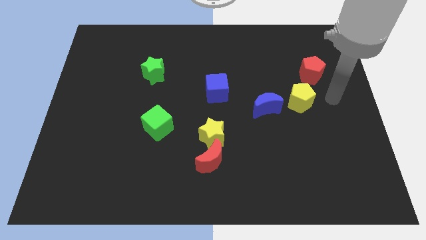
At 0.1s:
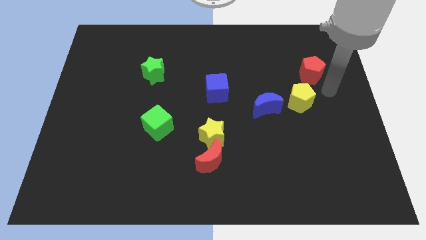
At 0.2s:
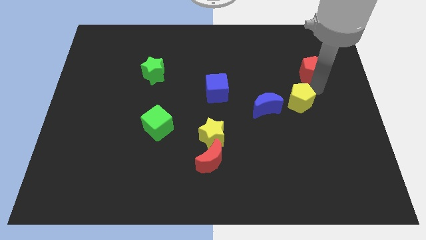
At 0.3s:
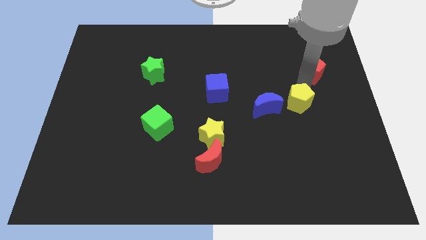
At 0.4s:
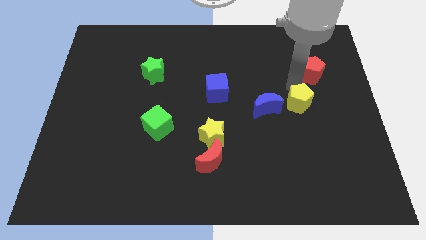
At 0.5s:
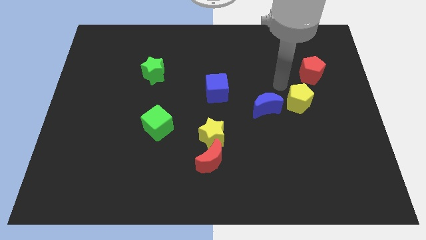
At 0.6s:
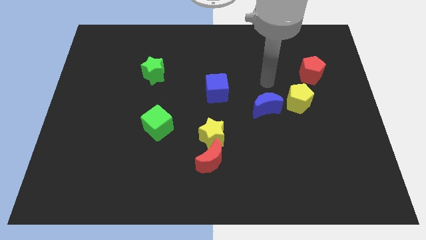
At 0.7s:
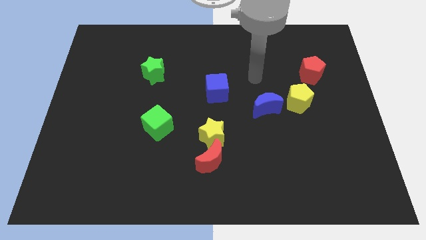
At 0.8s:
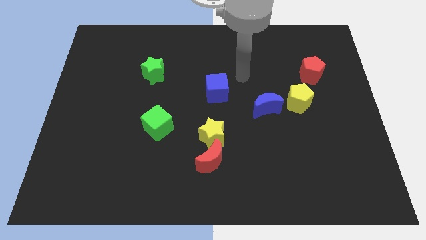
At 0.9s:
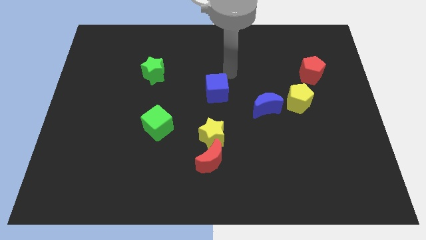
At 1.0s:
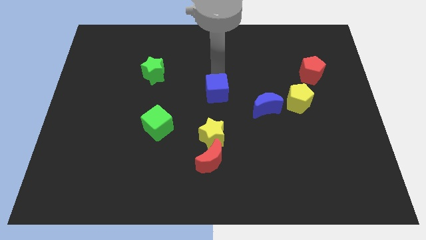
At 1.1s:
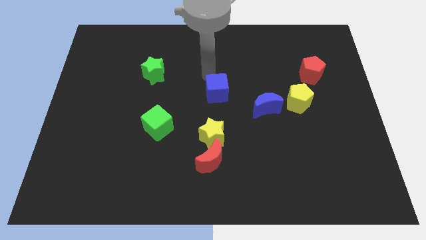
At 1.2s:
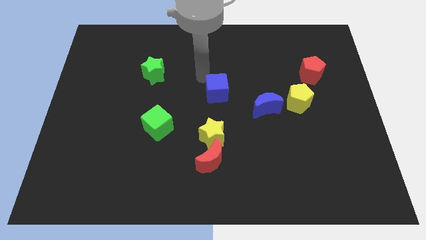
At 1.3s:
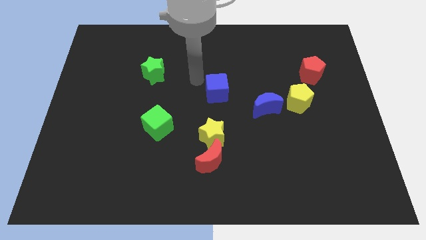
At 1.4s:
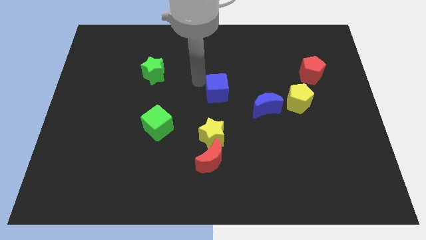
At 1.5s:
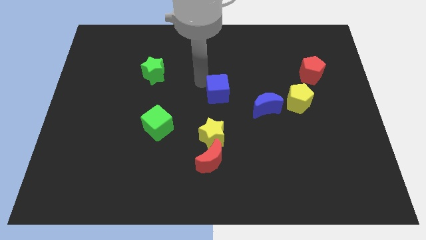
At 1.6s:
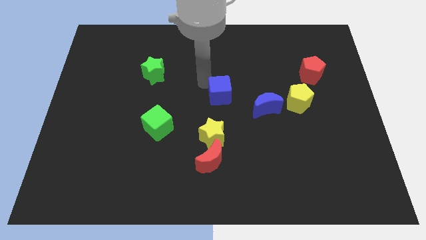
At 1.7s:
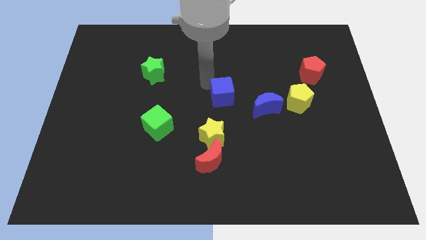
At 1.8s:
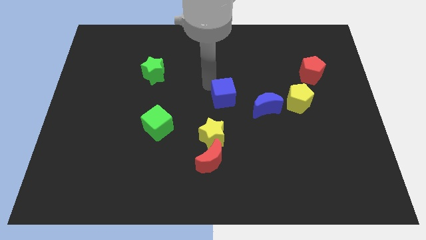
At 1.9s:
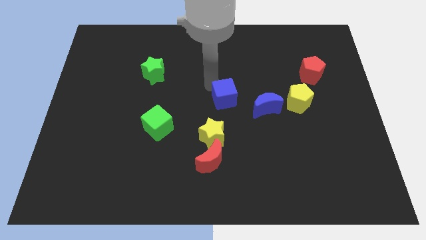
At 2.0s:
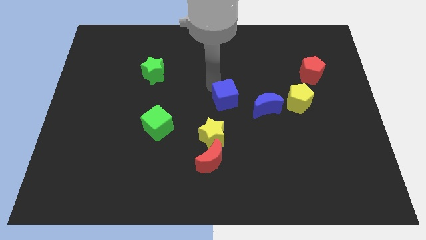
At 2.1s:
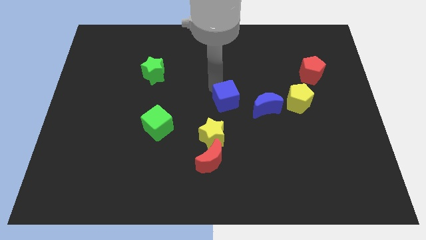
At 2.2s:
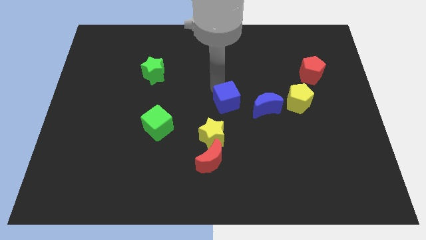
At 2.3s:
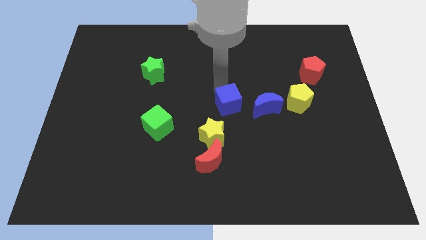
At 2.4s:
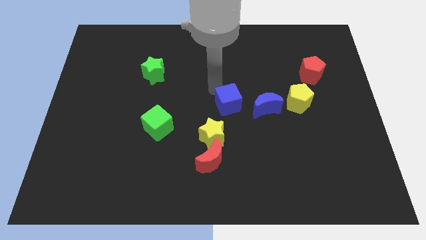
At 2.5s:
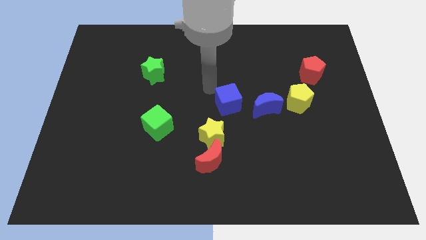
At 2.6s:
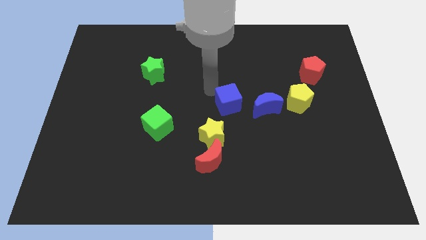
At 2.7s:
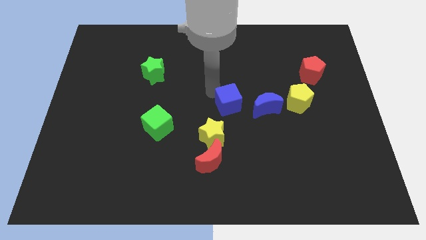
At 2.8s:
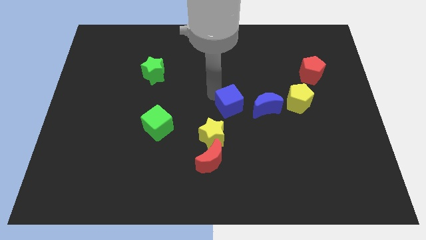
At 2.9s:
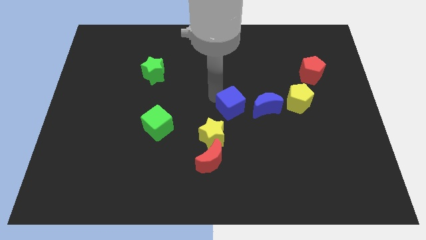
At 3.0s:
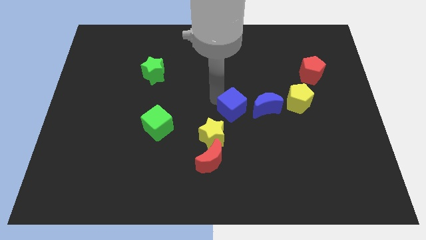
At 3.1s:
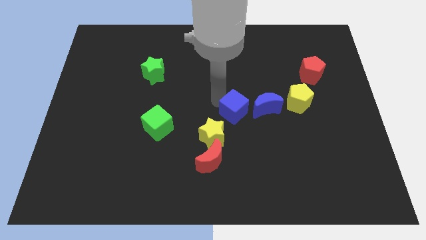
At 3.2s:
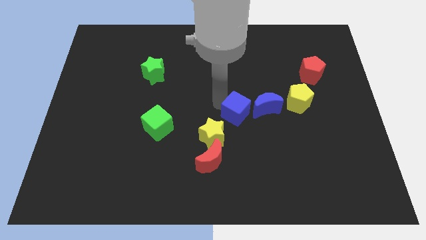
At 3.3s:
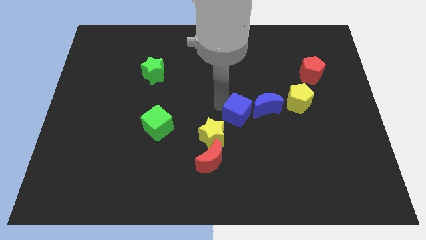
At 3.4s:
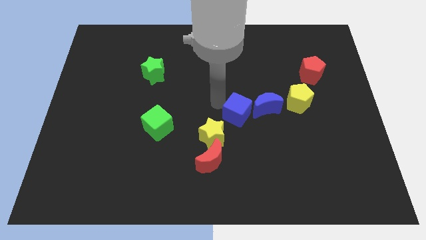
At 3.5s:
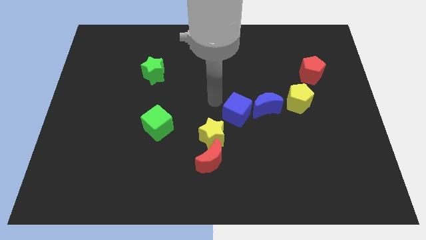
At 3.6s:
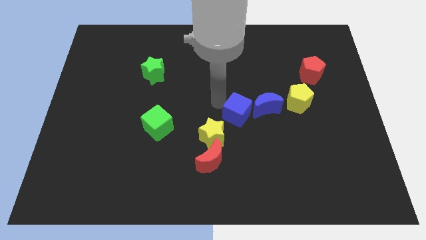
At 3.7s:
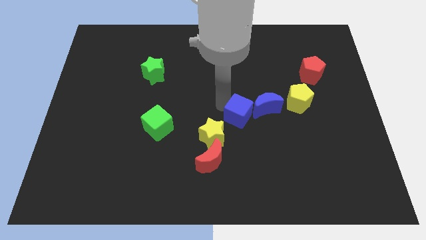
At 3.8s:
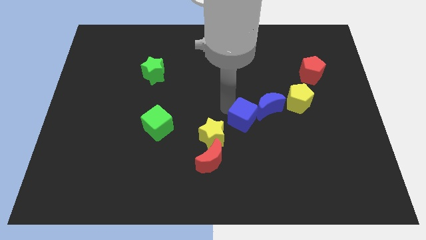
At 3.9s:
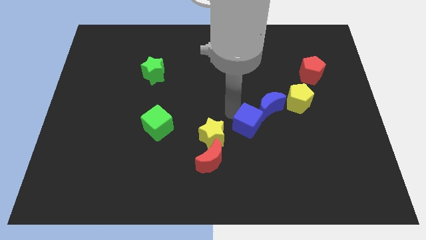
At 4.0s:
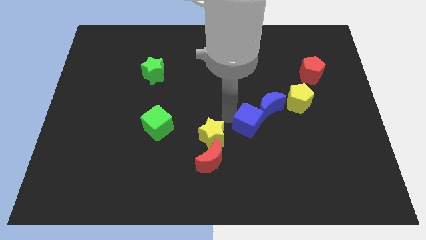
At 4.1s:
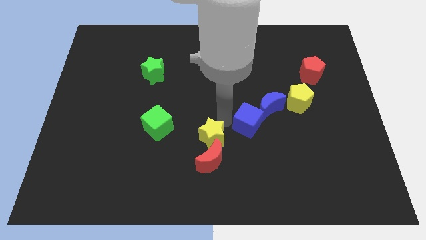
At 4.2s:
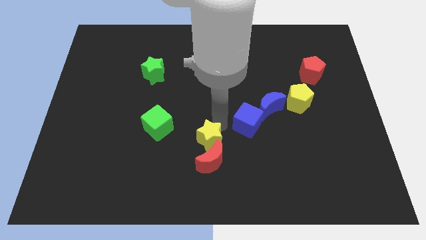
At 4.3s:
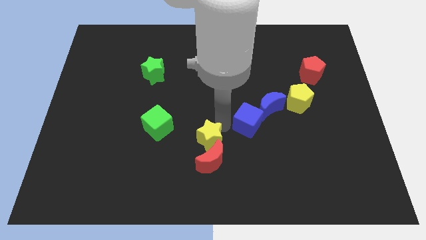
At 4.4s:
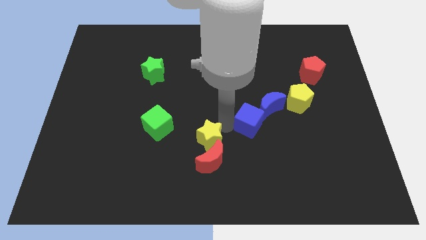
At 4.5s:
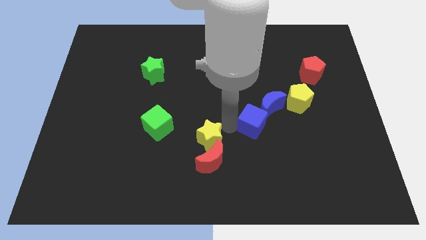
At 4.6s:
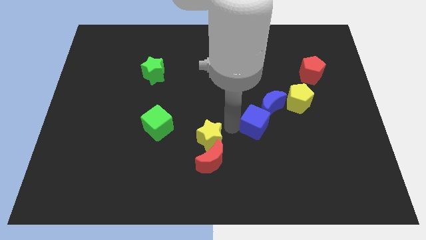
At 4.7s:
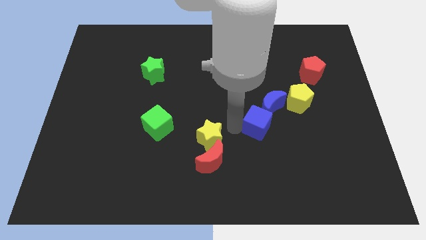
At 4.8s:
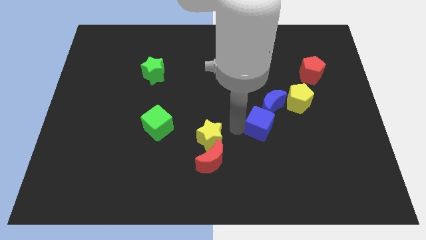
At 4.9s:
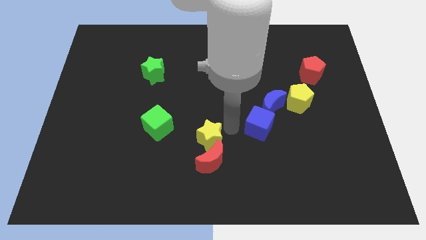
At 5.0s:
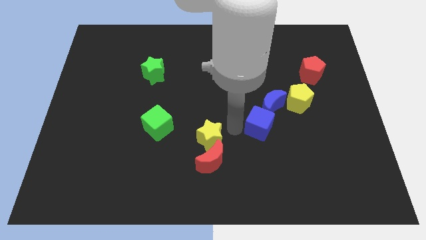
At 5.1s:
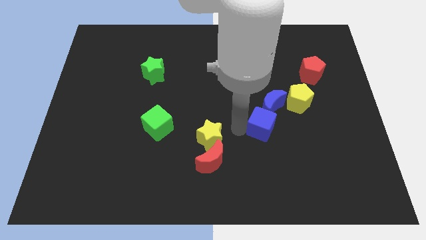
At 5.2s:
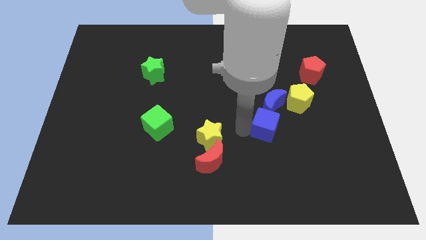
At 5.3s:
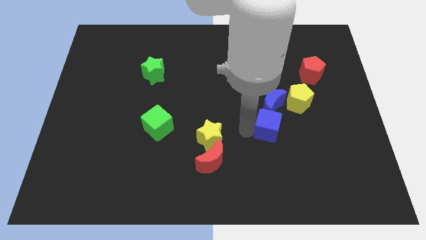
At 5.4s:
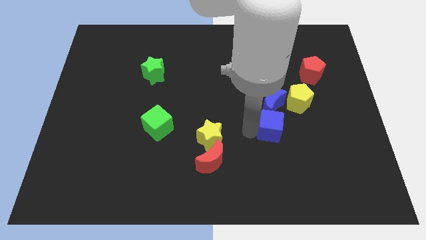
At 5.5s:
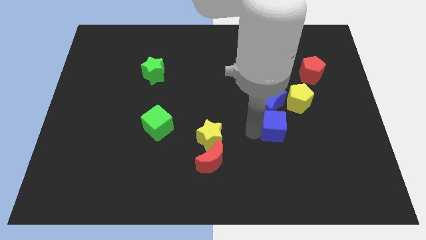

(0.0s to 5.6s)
slide the blue cube diagonally down and to the right of the blue moon

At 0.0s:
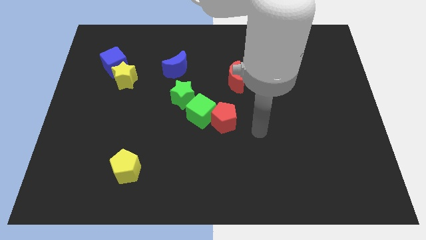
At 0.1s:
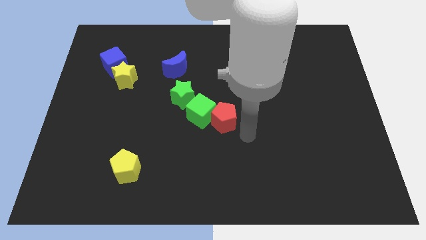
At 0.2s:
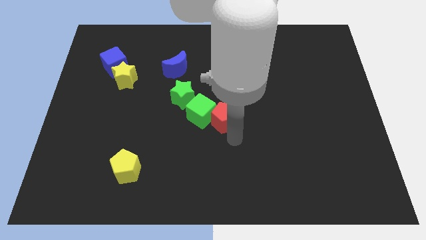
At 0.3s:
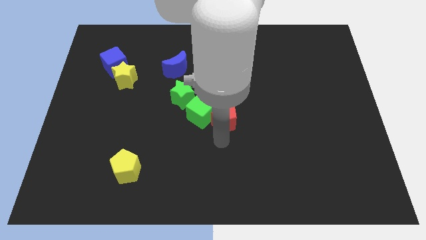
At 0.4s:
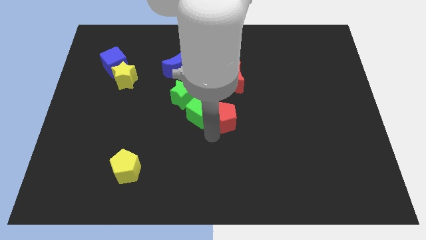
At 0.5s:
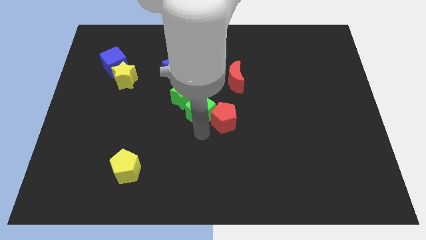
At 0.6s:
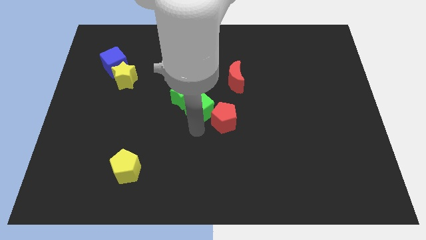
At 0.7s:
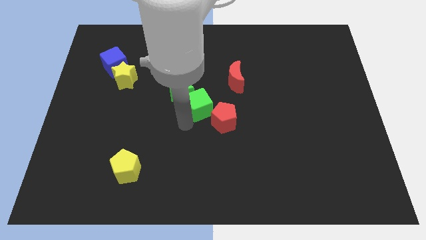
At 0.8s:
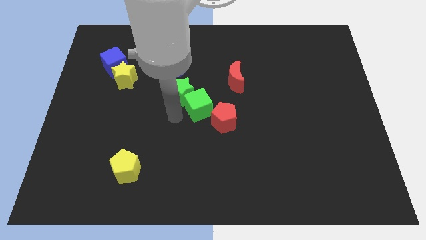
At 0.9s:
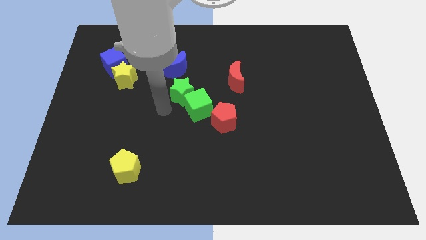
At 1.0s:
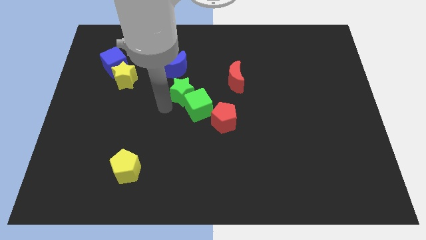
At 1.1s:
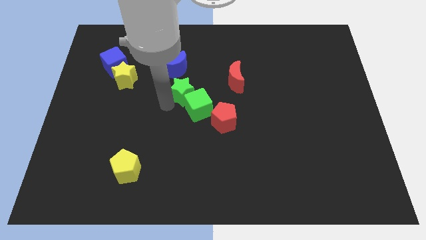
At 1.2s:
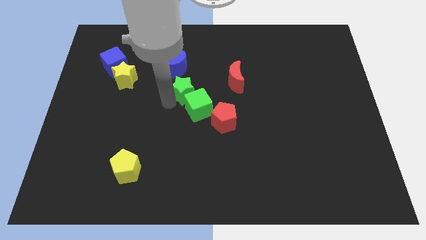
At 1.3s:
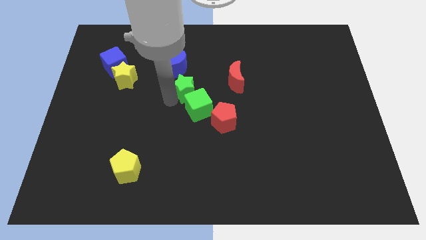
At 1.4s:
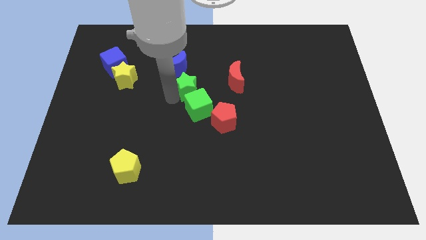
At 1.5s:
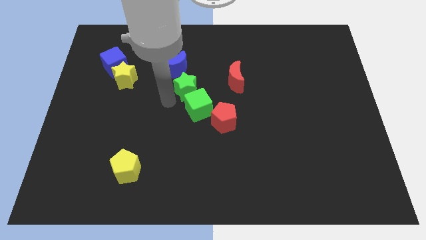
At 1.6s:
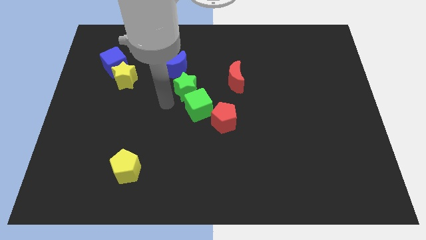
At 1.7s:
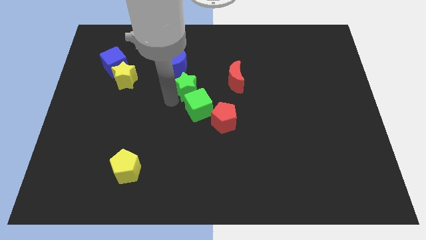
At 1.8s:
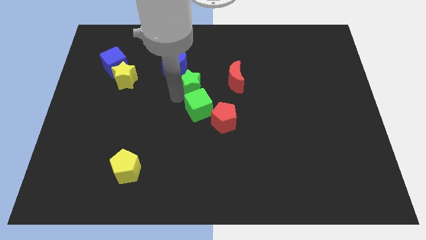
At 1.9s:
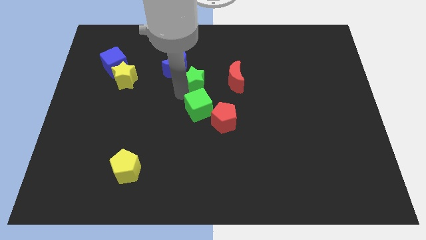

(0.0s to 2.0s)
move the green star to the right of the blue moon

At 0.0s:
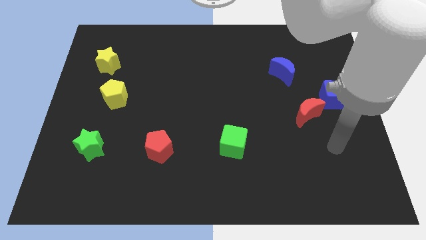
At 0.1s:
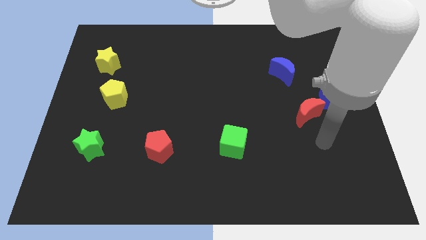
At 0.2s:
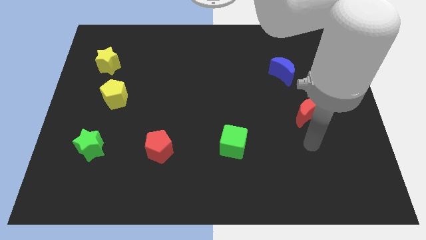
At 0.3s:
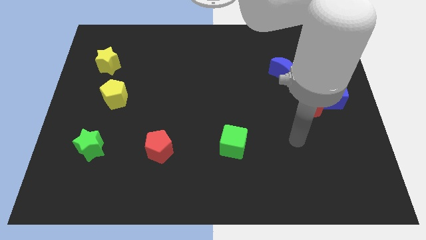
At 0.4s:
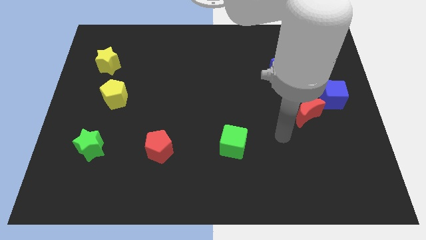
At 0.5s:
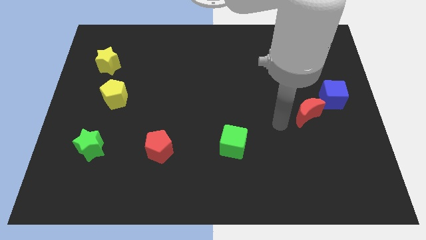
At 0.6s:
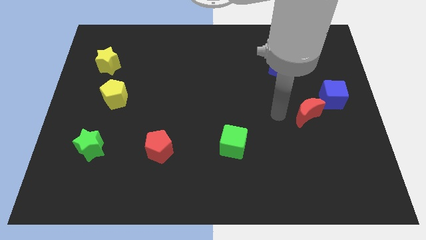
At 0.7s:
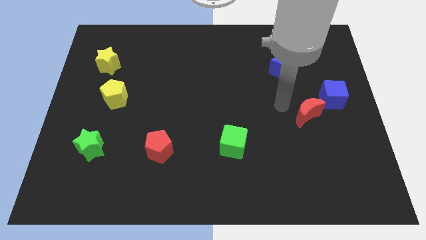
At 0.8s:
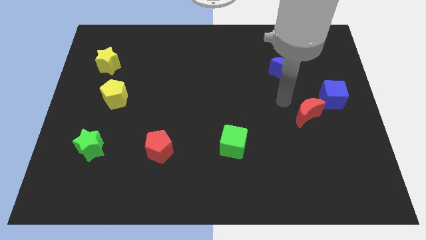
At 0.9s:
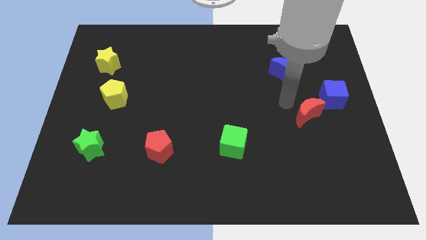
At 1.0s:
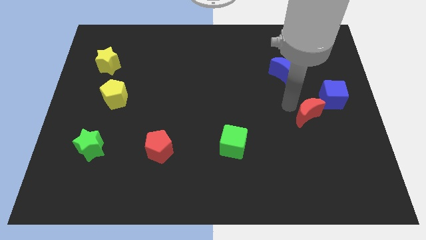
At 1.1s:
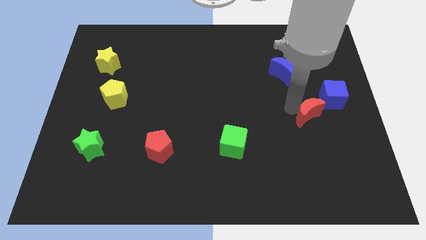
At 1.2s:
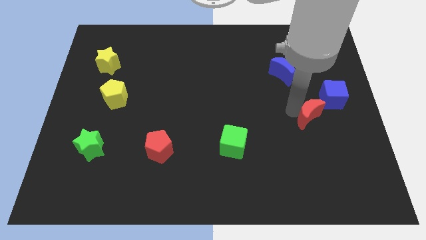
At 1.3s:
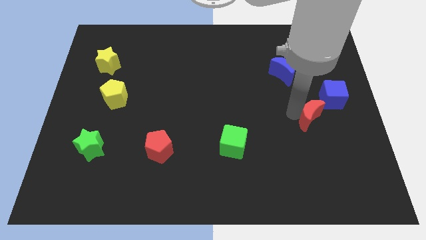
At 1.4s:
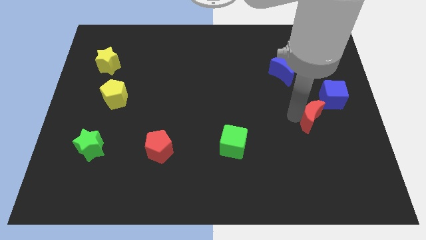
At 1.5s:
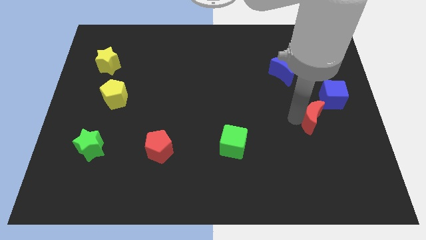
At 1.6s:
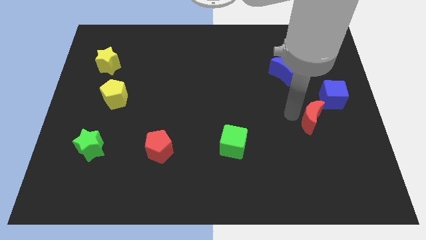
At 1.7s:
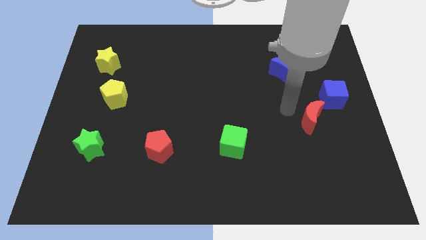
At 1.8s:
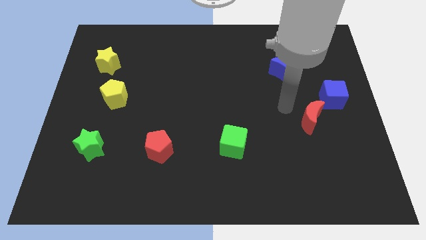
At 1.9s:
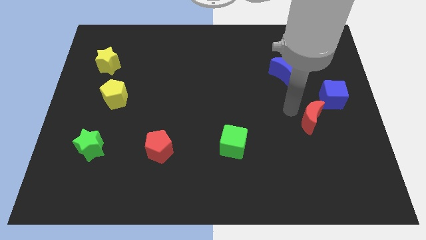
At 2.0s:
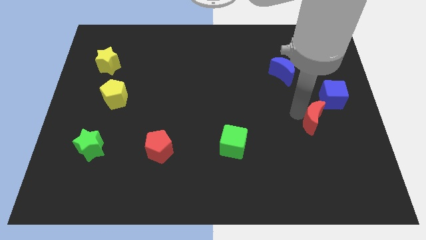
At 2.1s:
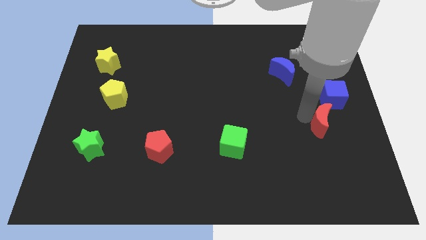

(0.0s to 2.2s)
put the red moon below the blue cube
